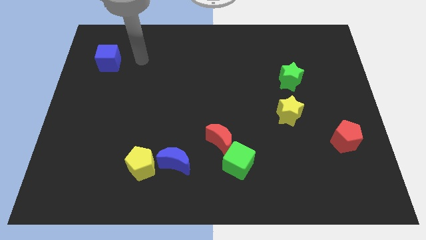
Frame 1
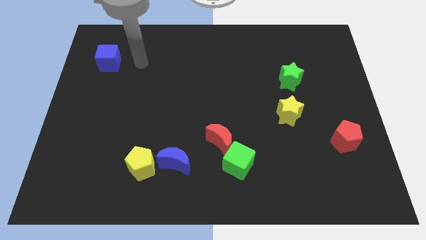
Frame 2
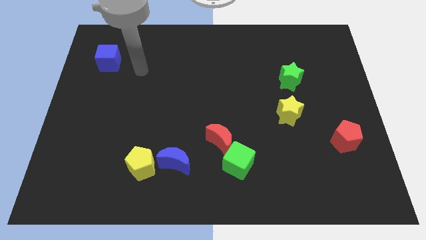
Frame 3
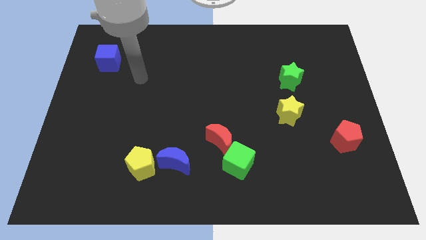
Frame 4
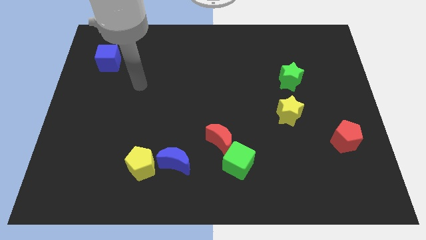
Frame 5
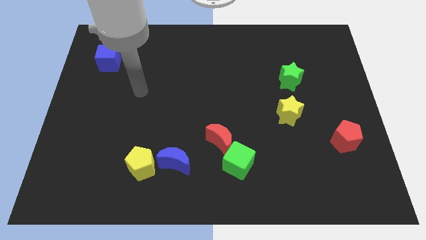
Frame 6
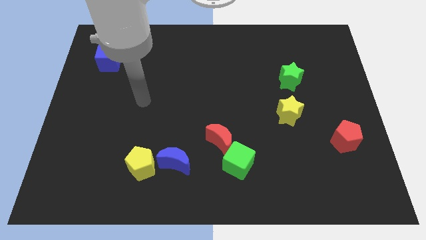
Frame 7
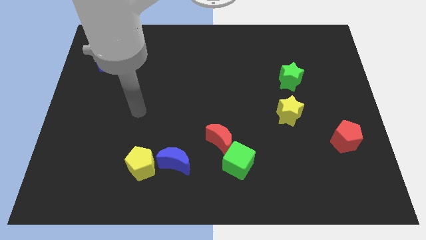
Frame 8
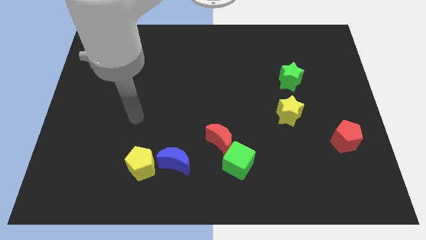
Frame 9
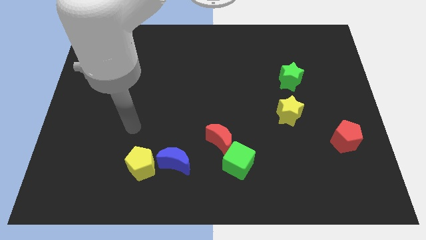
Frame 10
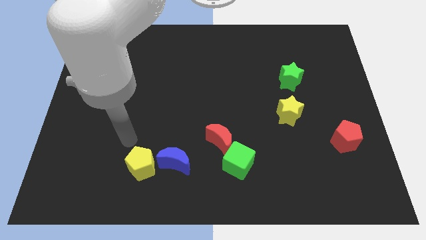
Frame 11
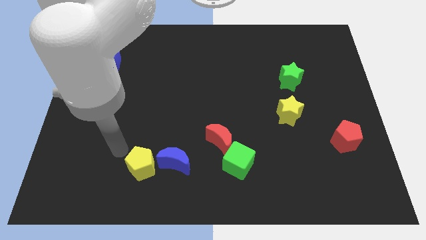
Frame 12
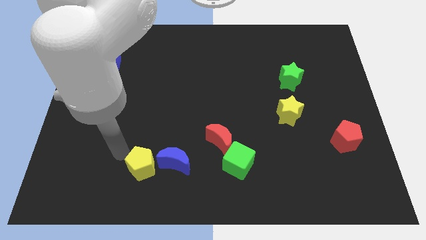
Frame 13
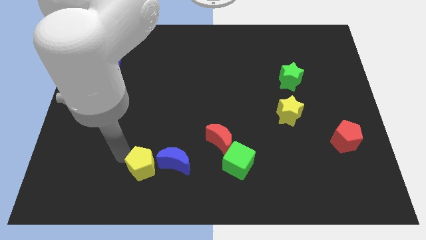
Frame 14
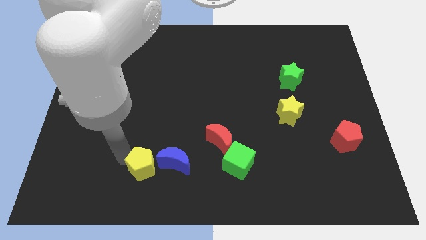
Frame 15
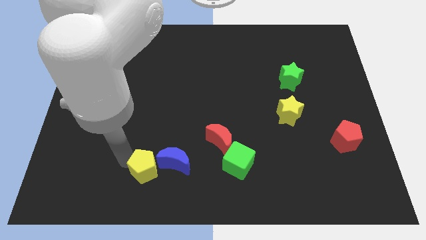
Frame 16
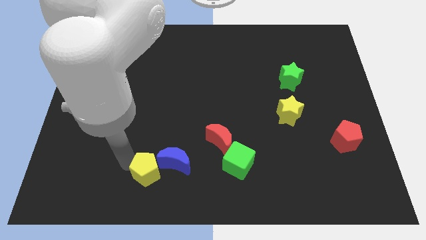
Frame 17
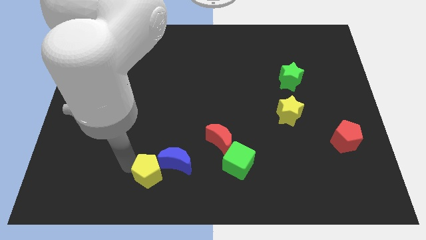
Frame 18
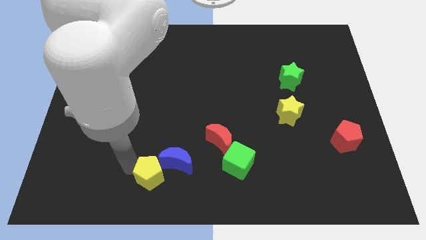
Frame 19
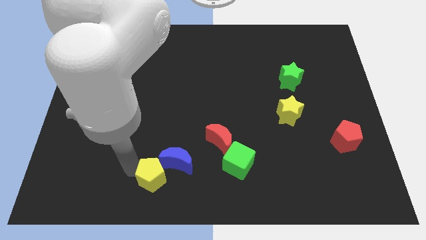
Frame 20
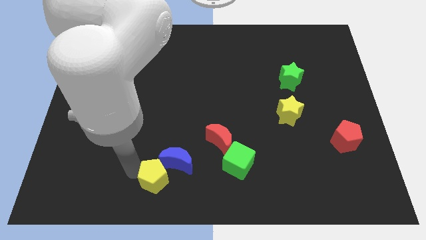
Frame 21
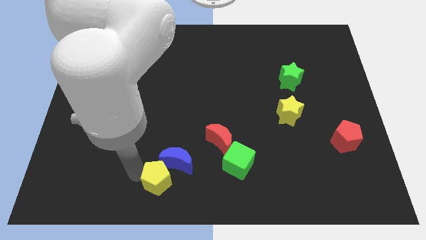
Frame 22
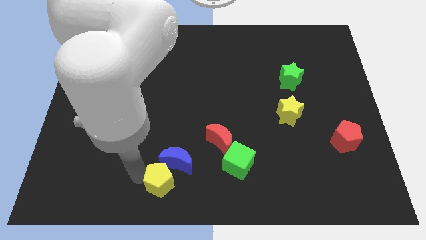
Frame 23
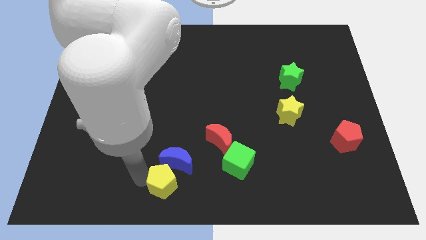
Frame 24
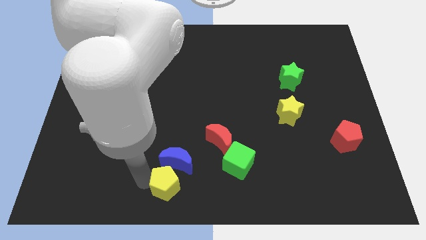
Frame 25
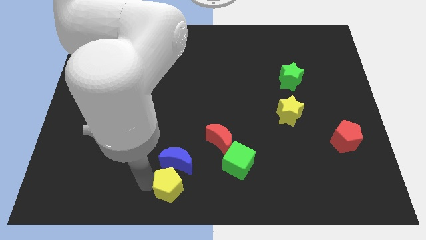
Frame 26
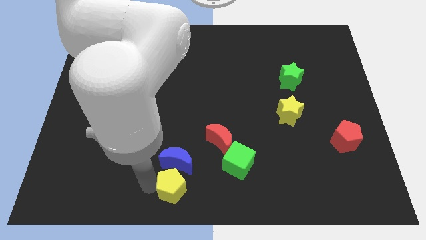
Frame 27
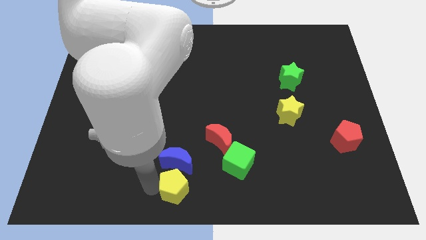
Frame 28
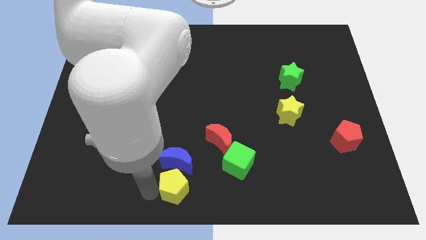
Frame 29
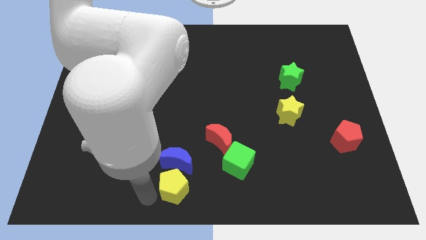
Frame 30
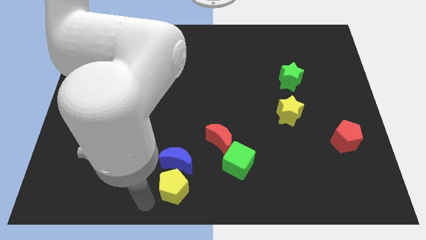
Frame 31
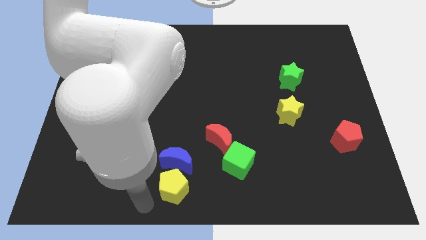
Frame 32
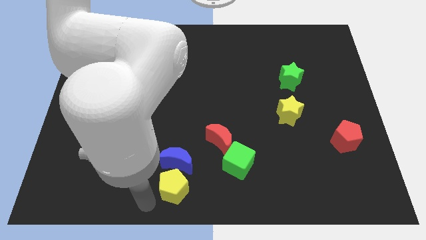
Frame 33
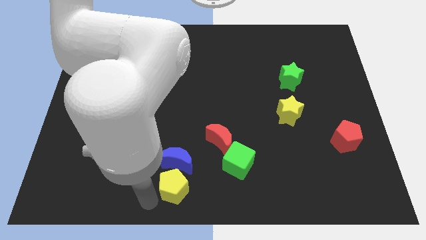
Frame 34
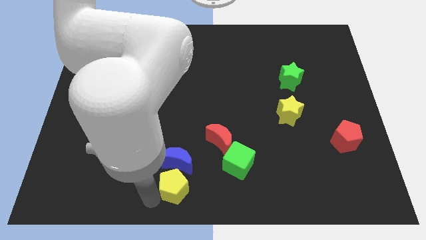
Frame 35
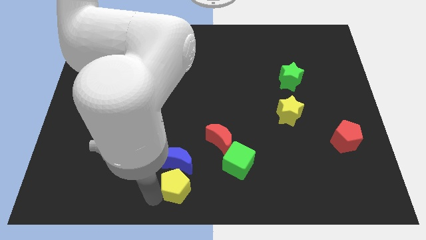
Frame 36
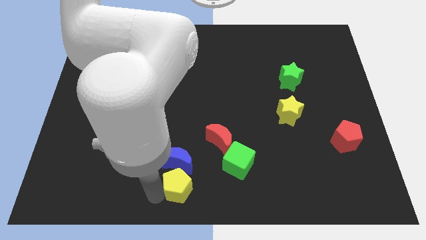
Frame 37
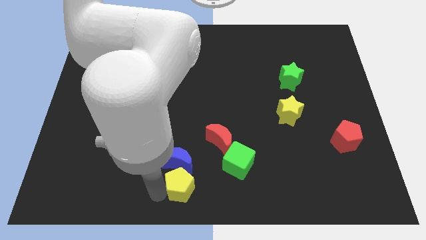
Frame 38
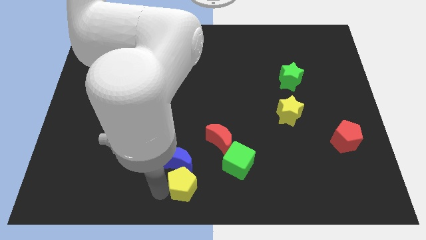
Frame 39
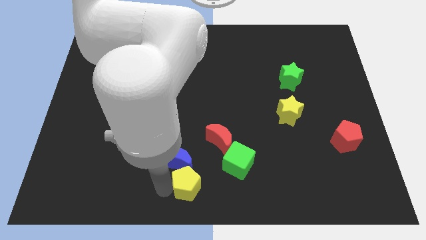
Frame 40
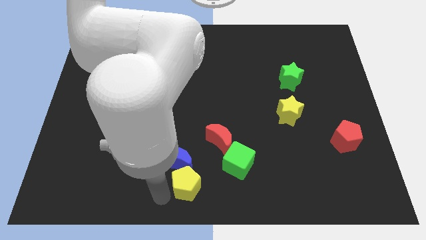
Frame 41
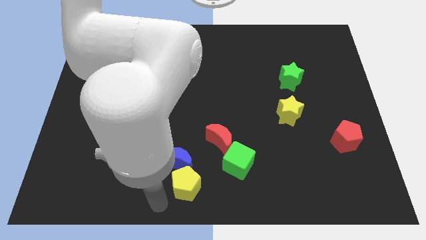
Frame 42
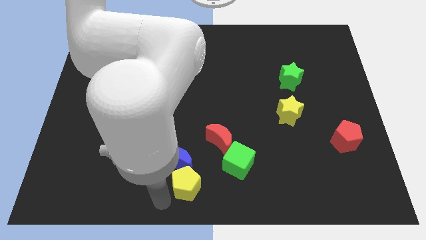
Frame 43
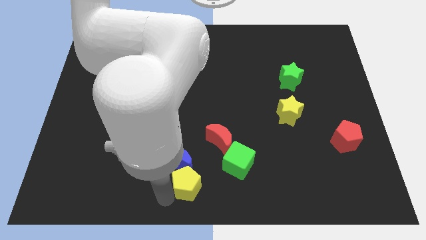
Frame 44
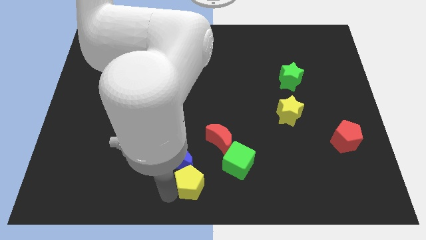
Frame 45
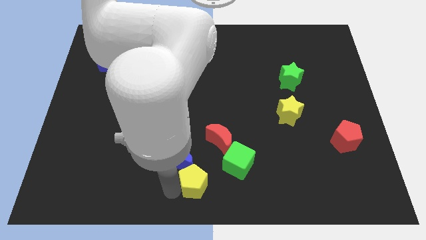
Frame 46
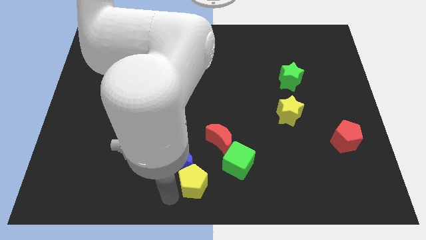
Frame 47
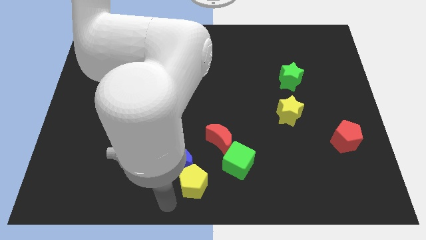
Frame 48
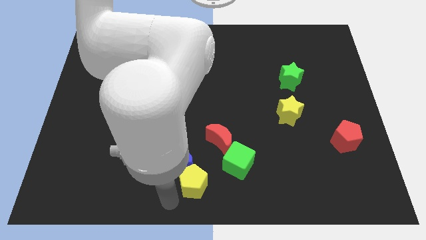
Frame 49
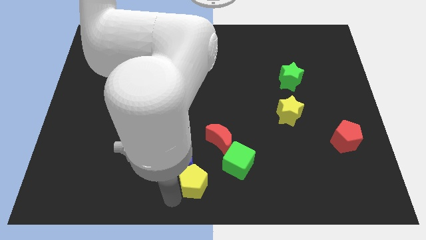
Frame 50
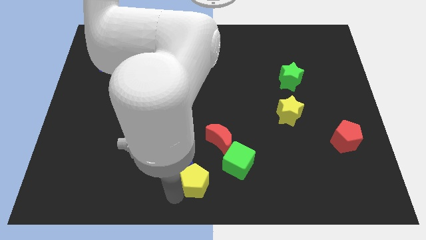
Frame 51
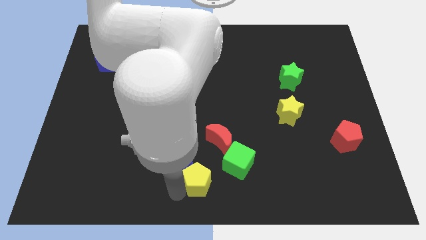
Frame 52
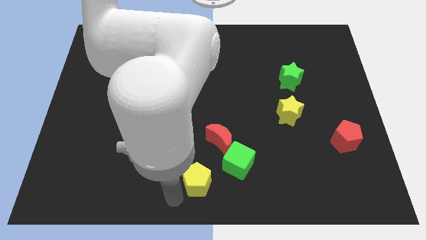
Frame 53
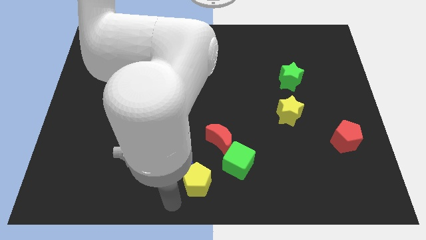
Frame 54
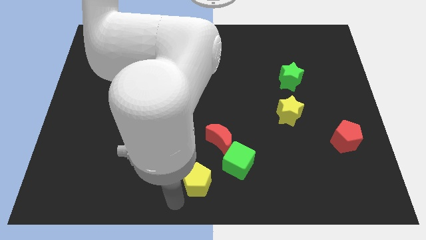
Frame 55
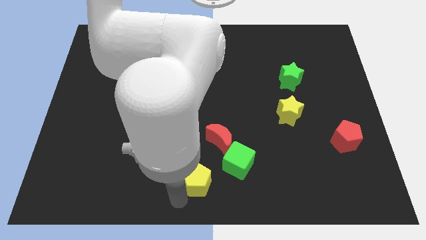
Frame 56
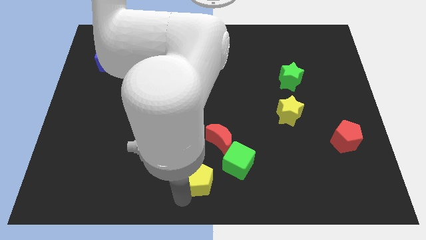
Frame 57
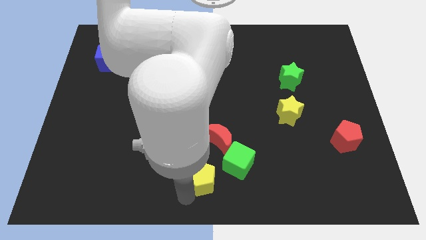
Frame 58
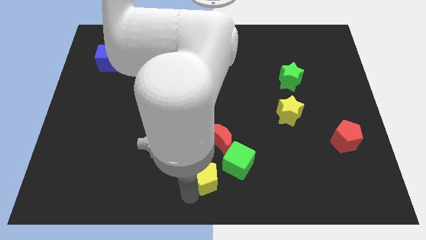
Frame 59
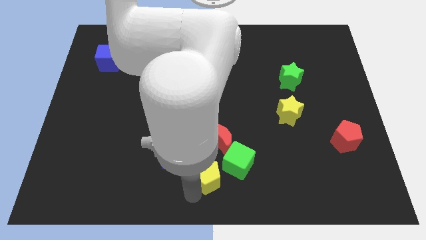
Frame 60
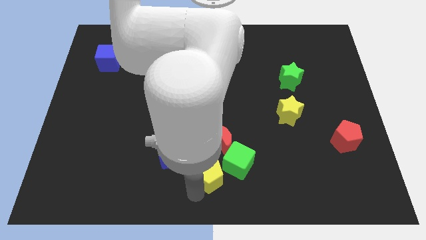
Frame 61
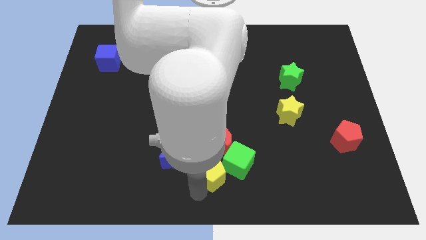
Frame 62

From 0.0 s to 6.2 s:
move the yellow pentagon towards the green cube

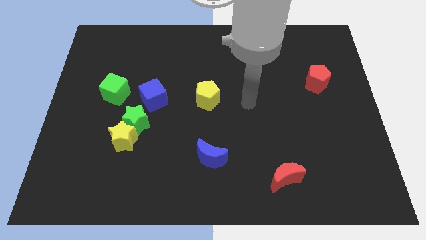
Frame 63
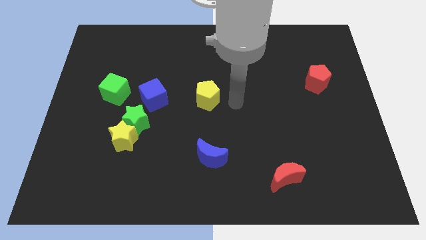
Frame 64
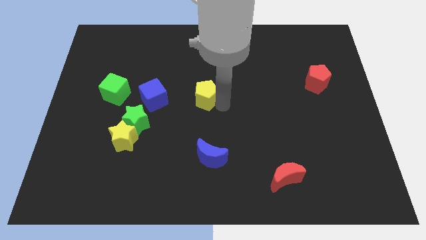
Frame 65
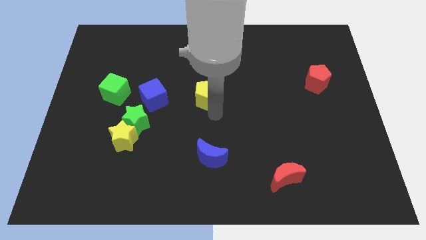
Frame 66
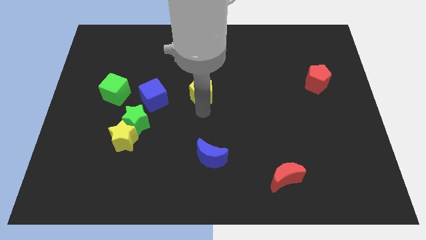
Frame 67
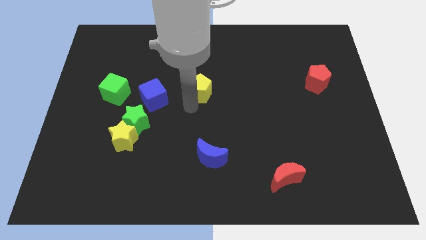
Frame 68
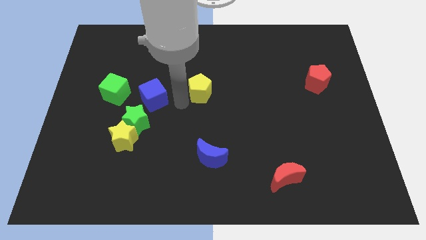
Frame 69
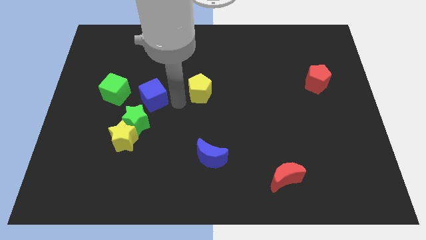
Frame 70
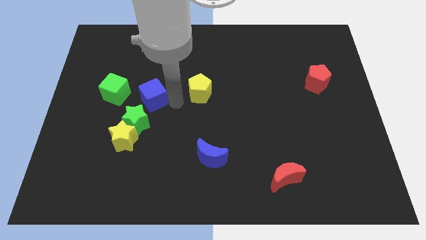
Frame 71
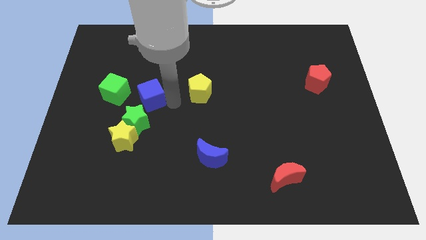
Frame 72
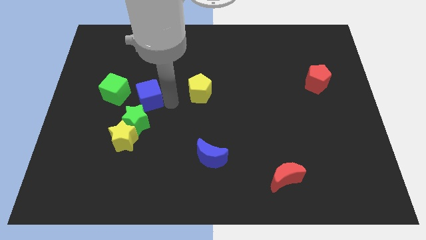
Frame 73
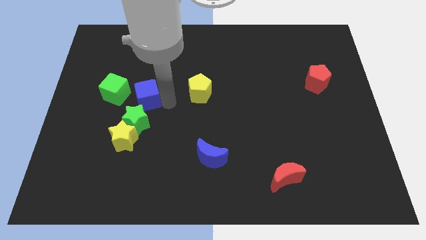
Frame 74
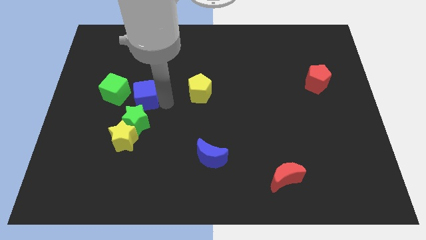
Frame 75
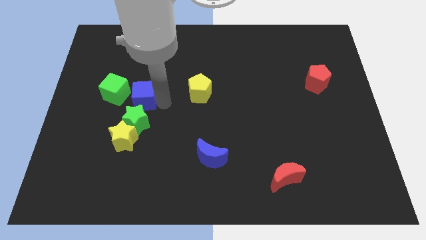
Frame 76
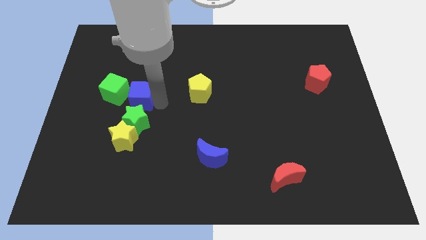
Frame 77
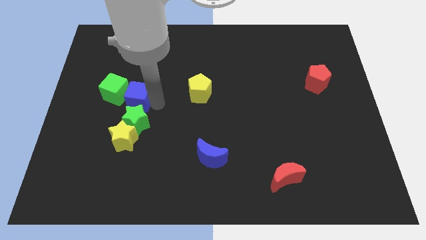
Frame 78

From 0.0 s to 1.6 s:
put the blue cube towards the green cube
